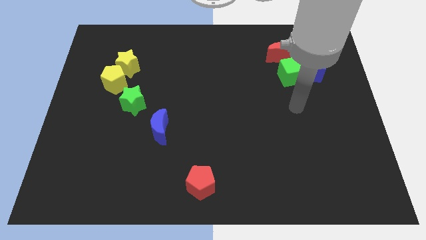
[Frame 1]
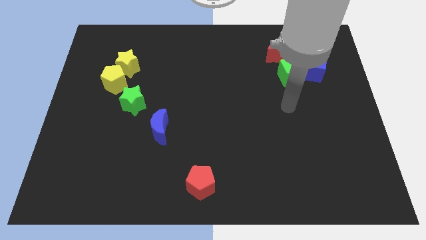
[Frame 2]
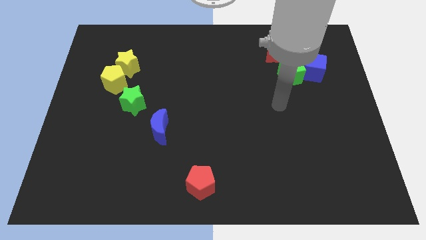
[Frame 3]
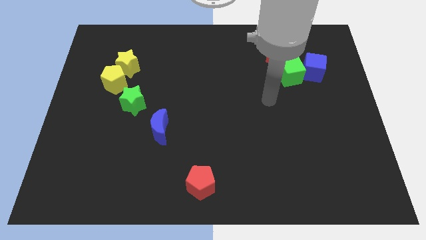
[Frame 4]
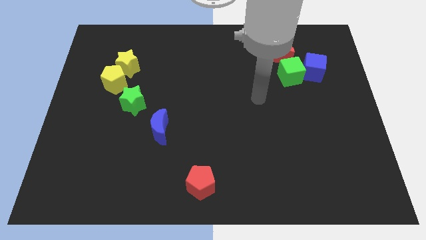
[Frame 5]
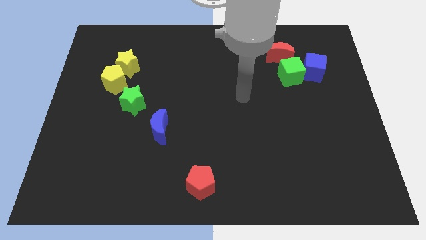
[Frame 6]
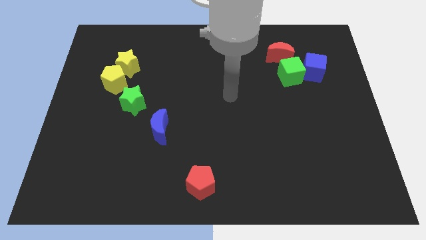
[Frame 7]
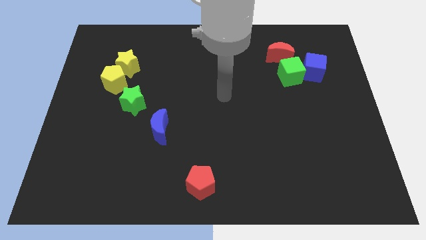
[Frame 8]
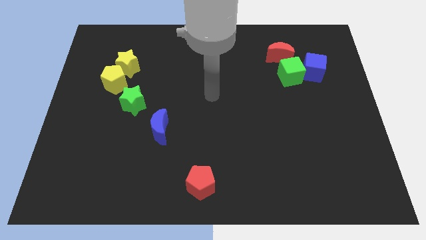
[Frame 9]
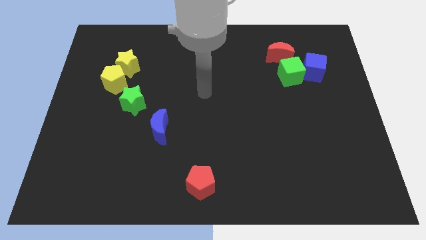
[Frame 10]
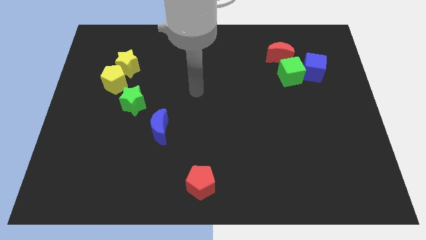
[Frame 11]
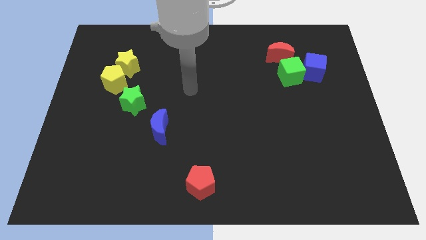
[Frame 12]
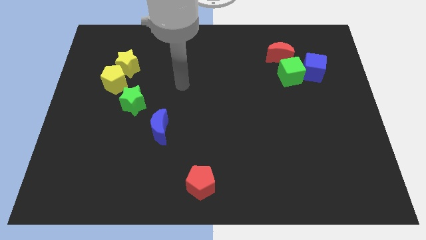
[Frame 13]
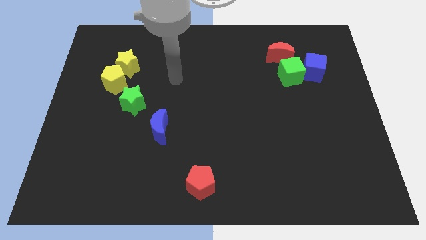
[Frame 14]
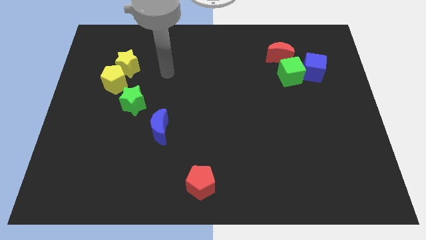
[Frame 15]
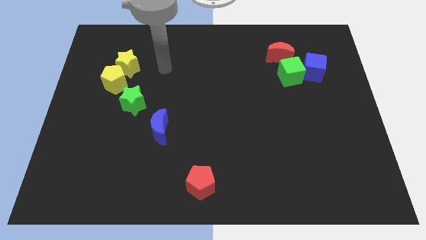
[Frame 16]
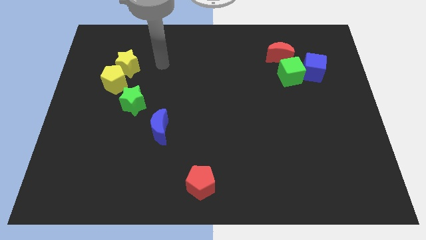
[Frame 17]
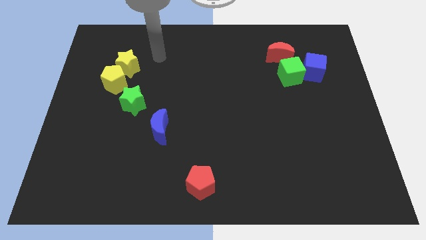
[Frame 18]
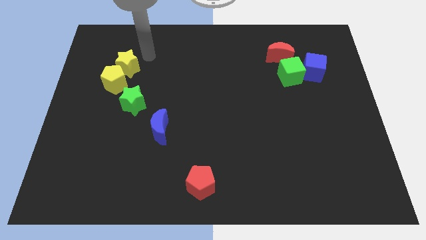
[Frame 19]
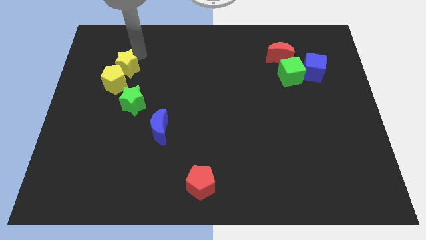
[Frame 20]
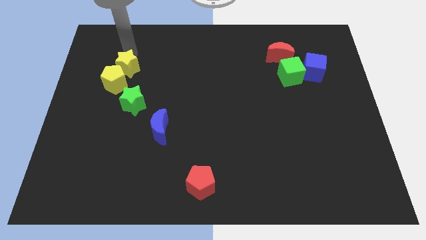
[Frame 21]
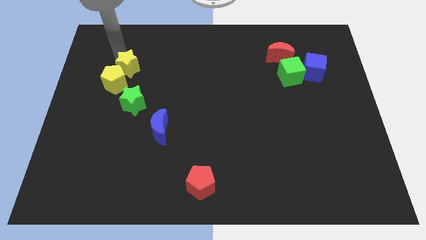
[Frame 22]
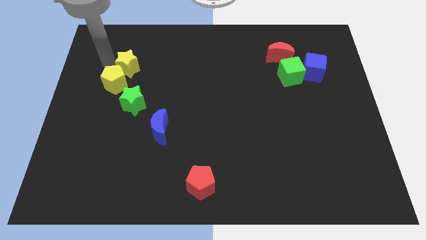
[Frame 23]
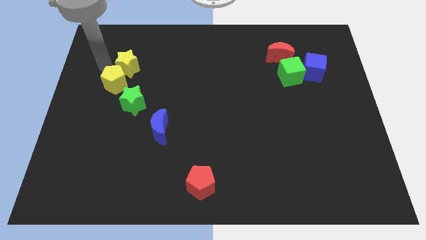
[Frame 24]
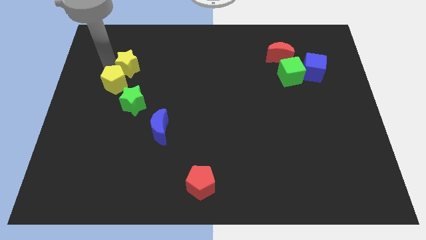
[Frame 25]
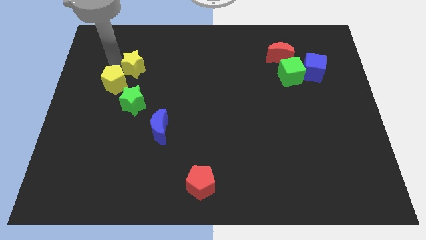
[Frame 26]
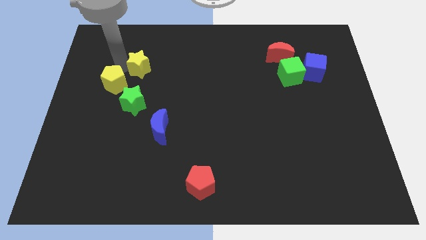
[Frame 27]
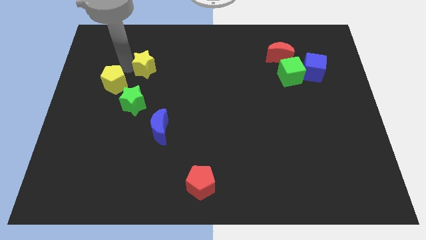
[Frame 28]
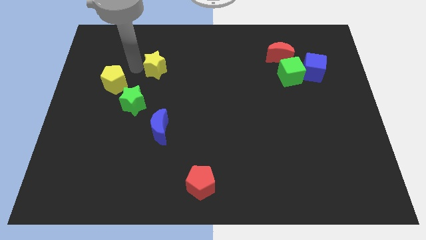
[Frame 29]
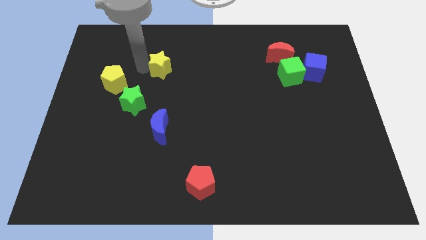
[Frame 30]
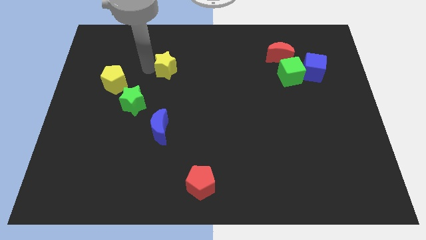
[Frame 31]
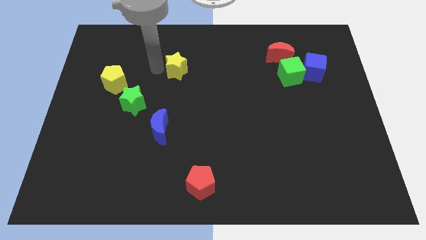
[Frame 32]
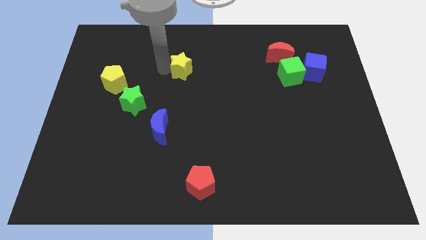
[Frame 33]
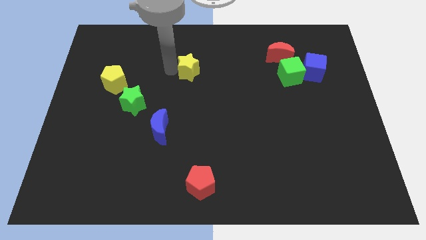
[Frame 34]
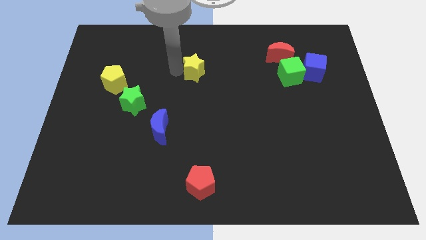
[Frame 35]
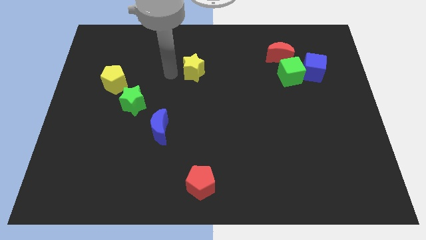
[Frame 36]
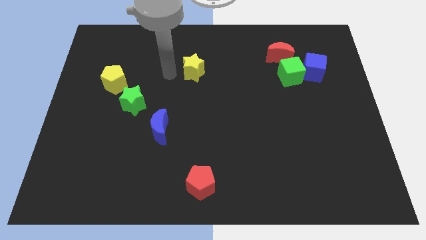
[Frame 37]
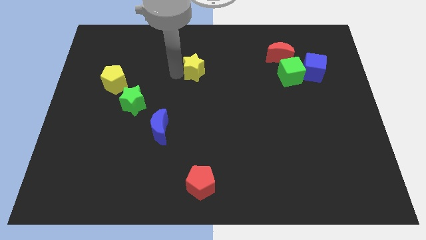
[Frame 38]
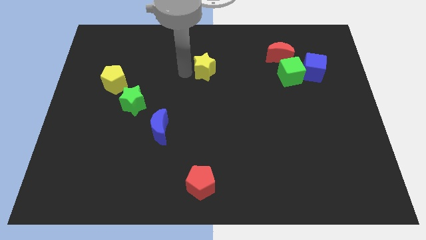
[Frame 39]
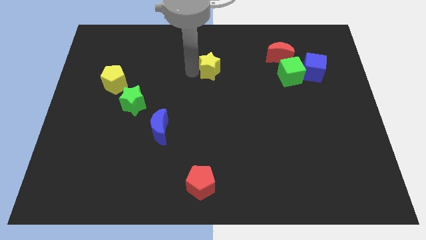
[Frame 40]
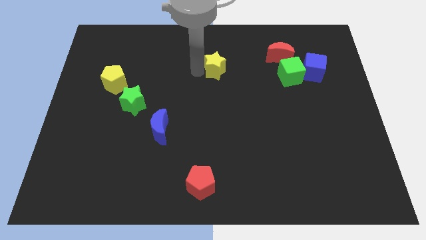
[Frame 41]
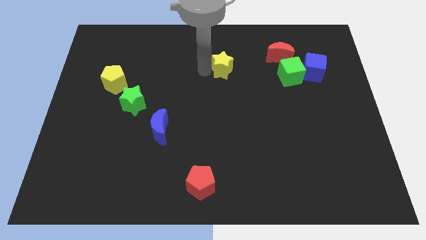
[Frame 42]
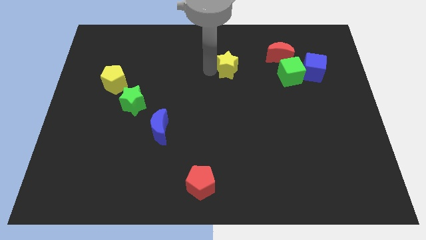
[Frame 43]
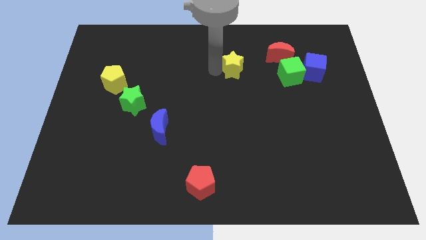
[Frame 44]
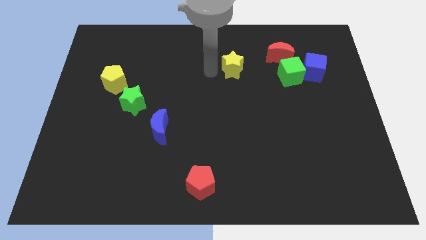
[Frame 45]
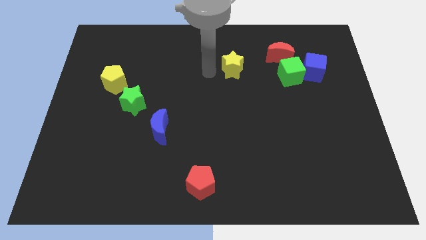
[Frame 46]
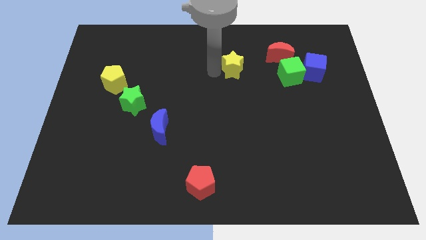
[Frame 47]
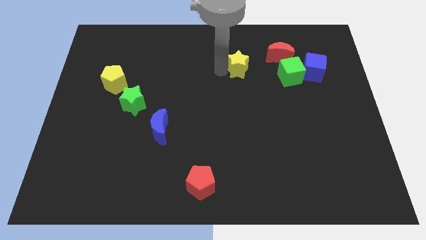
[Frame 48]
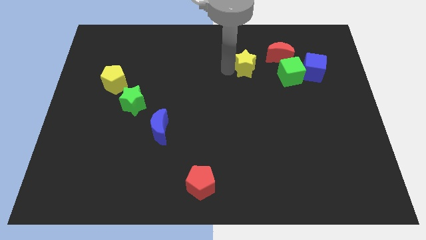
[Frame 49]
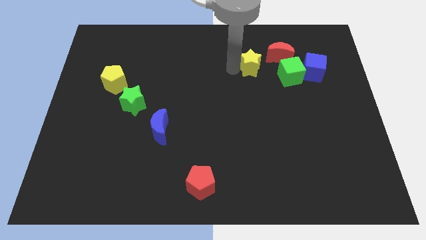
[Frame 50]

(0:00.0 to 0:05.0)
push the yellow star just left of the blue cube

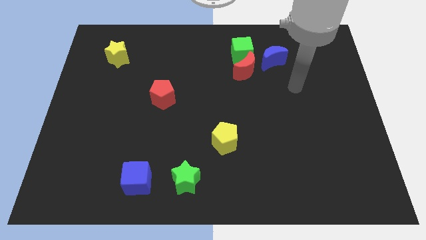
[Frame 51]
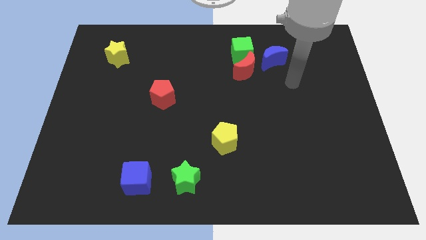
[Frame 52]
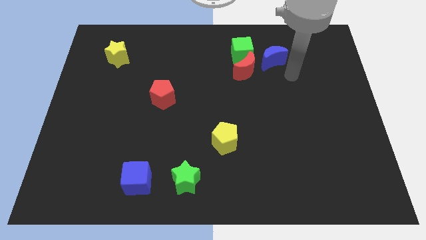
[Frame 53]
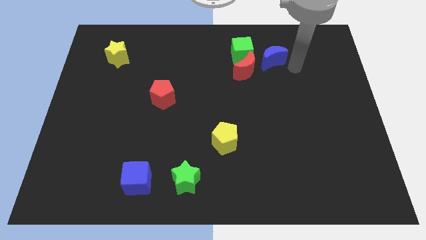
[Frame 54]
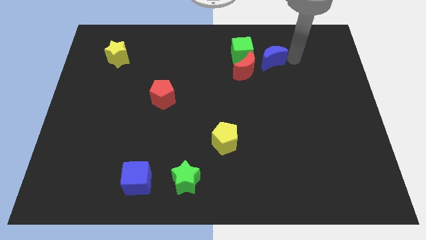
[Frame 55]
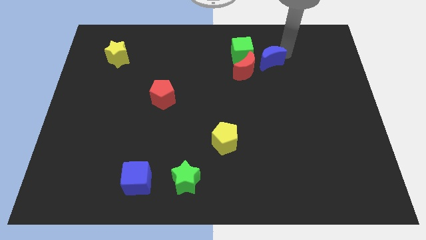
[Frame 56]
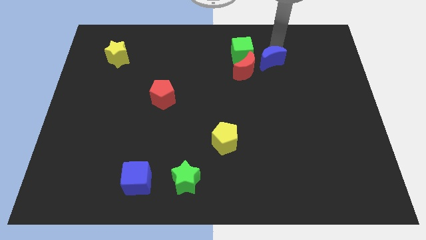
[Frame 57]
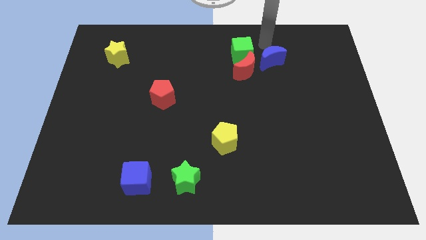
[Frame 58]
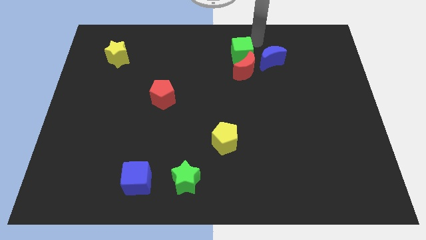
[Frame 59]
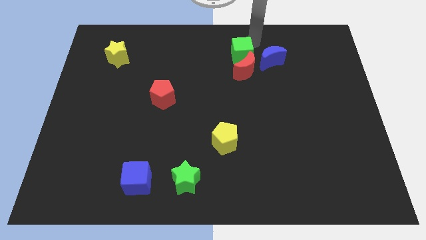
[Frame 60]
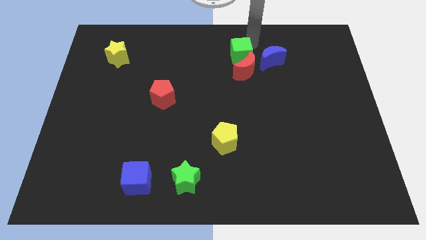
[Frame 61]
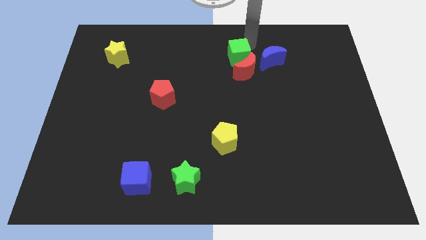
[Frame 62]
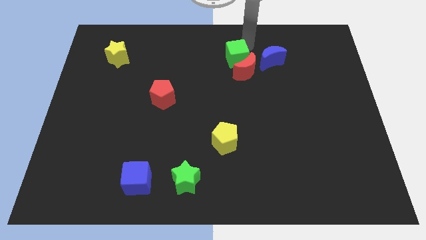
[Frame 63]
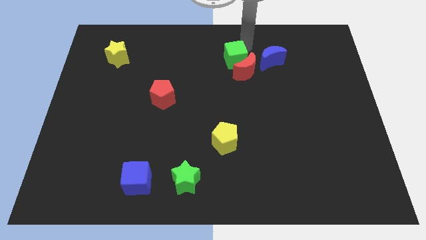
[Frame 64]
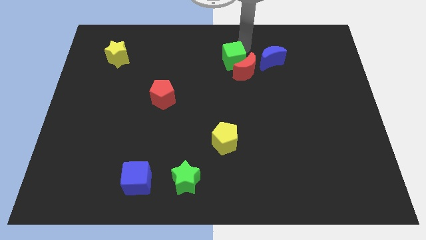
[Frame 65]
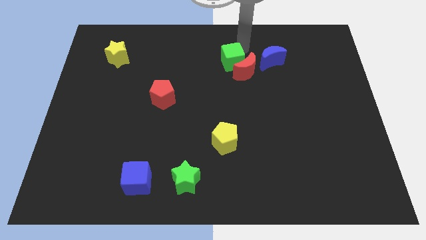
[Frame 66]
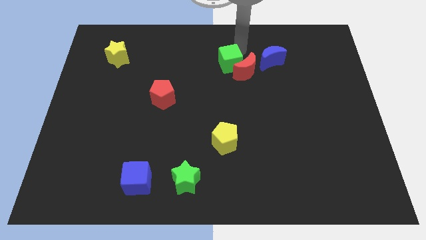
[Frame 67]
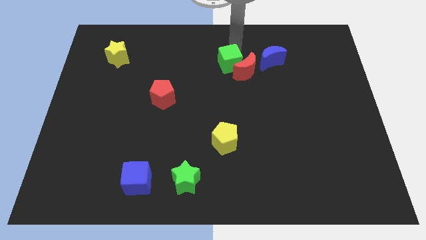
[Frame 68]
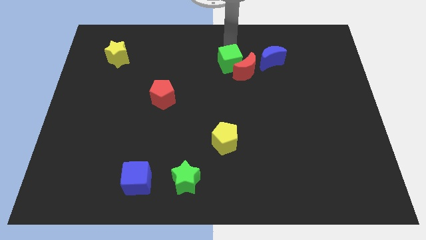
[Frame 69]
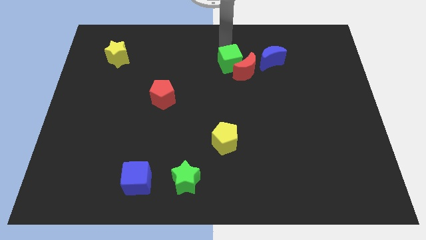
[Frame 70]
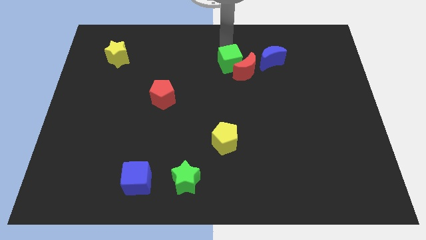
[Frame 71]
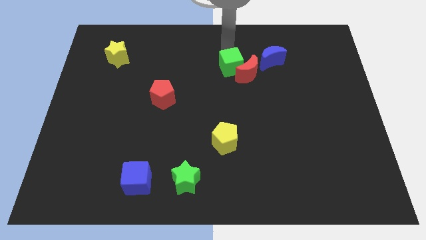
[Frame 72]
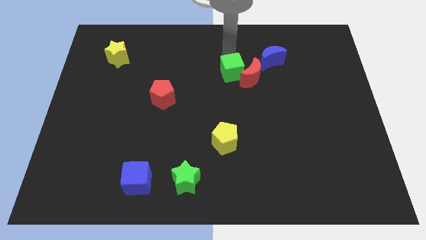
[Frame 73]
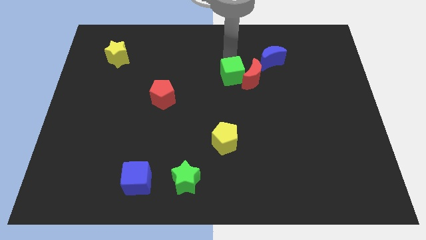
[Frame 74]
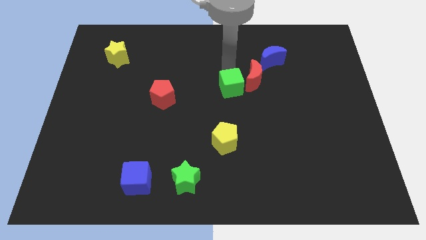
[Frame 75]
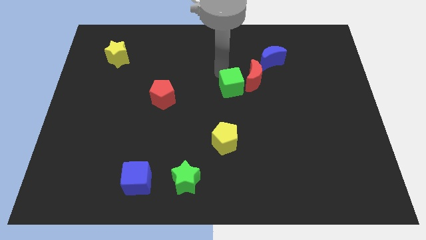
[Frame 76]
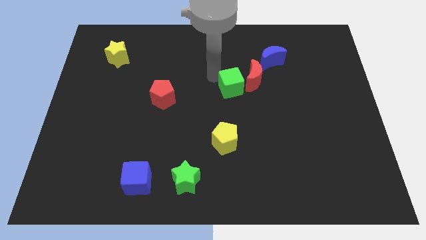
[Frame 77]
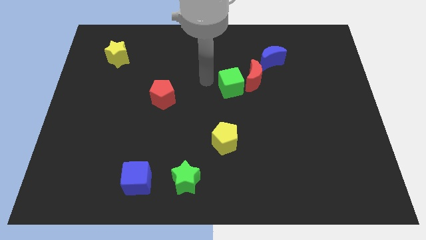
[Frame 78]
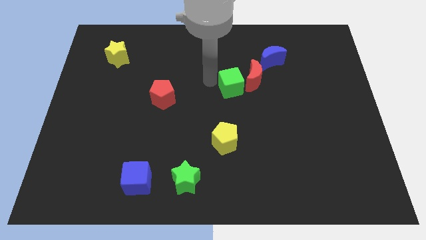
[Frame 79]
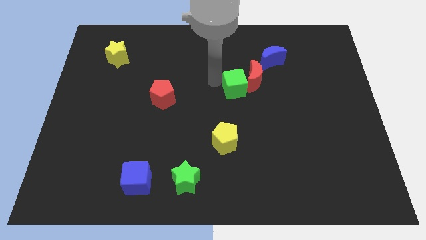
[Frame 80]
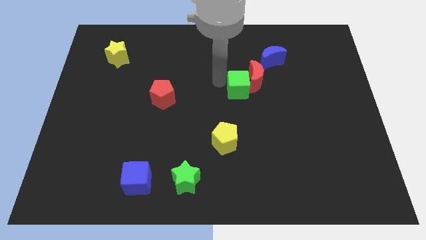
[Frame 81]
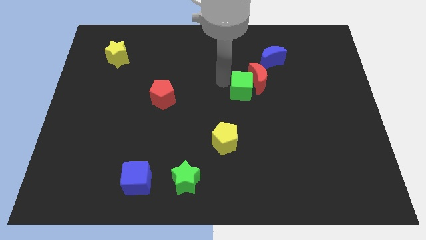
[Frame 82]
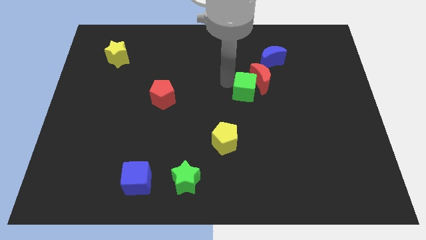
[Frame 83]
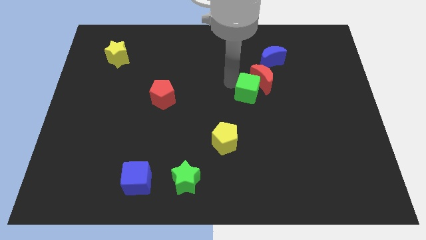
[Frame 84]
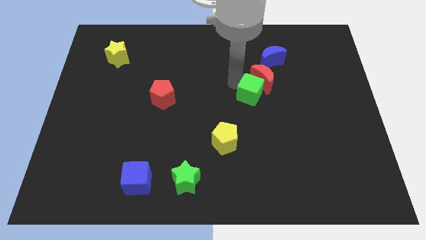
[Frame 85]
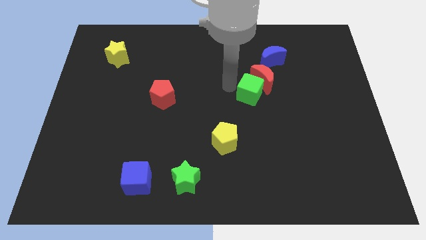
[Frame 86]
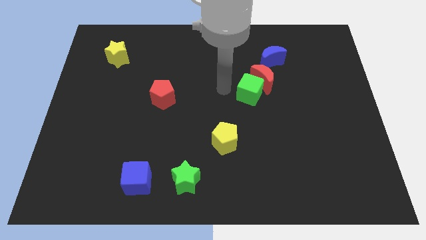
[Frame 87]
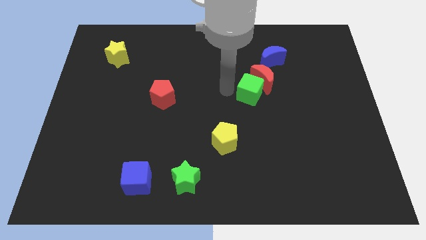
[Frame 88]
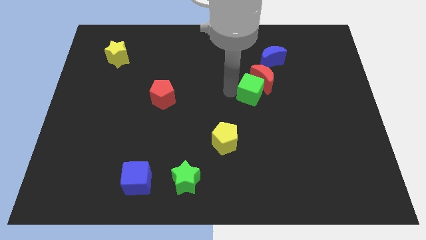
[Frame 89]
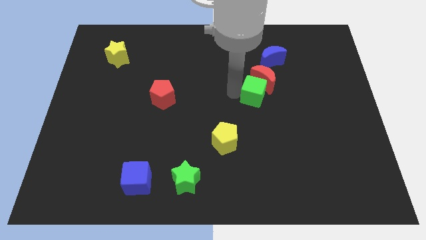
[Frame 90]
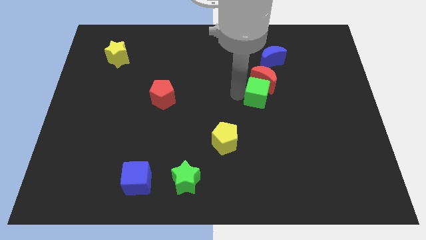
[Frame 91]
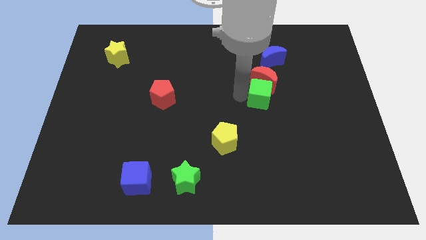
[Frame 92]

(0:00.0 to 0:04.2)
move the green cube to the bottom right side of the red moon
